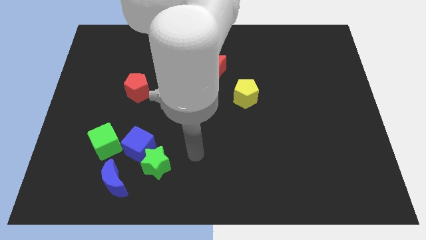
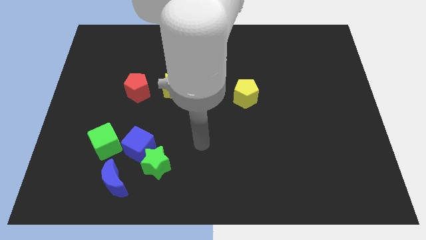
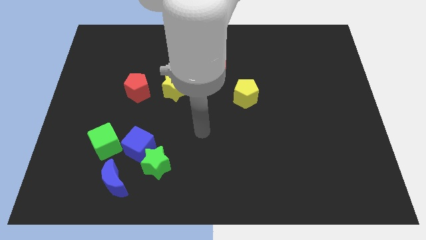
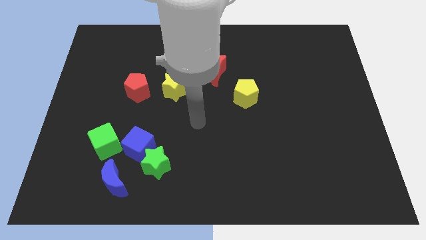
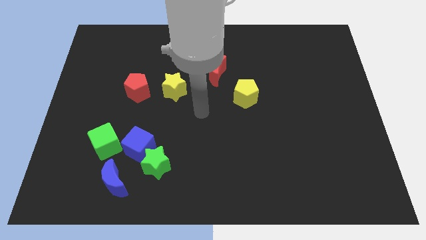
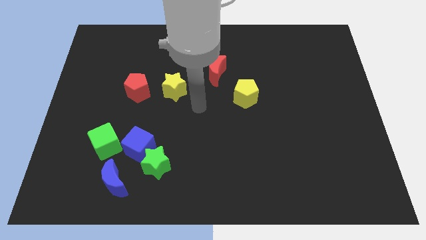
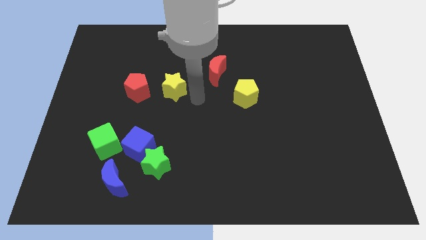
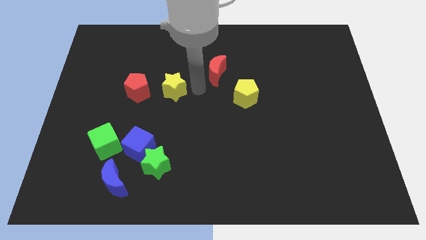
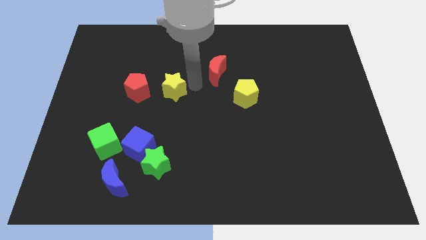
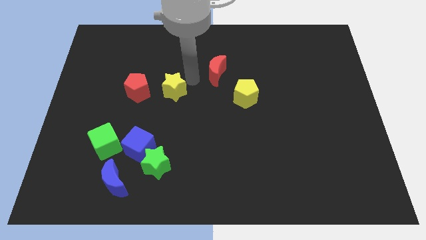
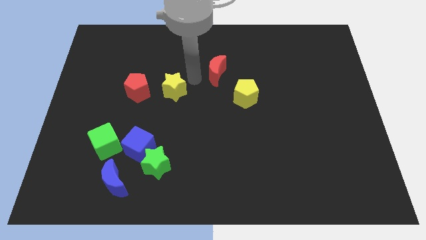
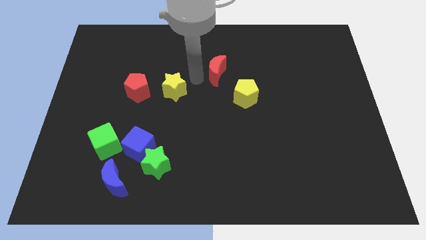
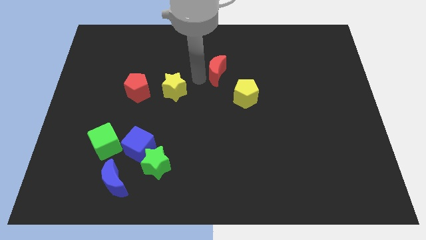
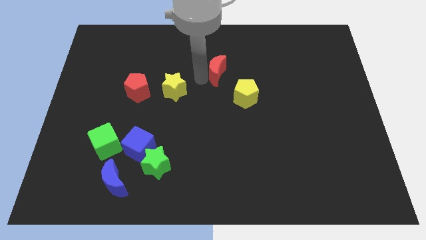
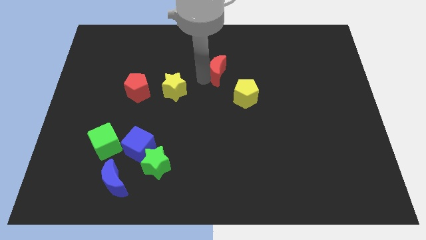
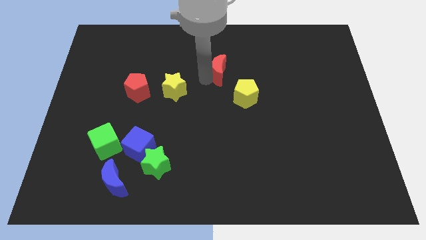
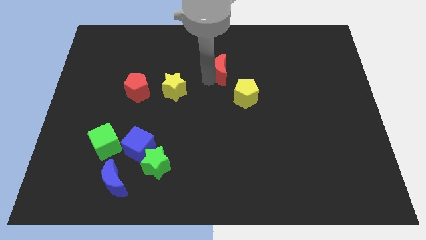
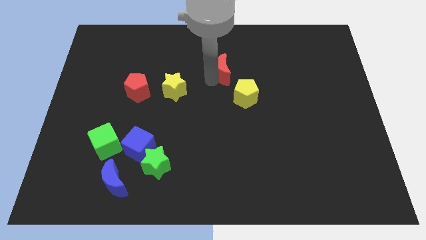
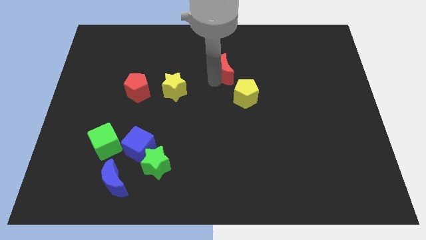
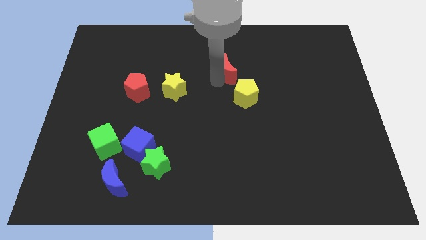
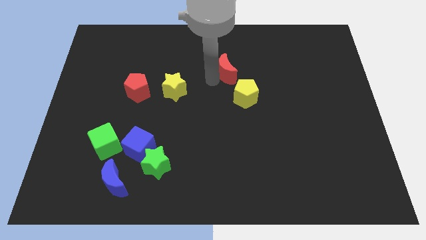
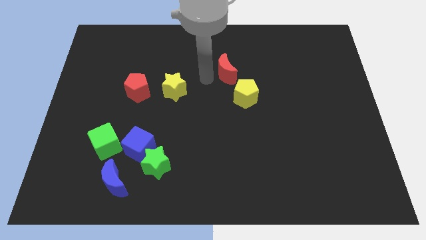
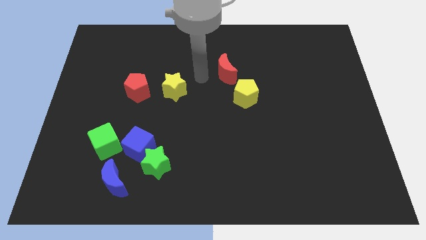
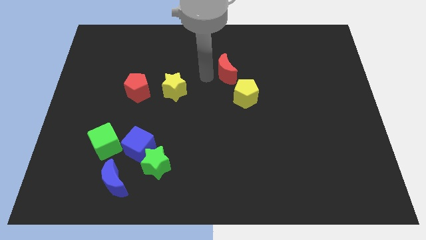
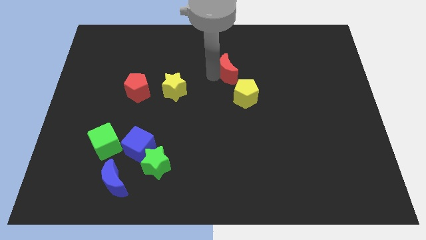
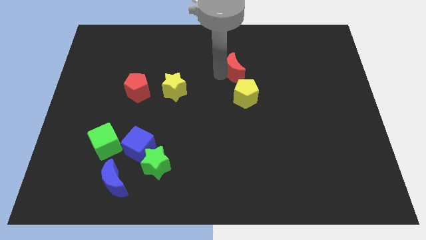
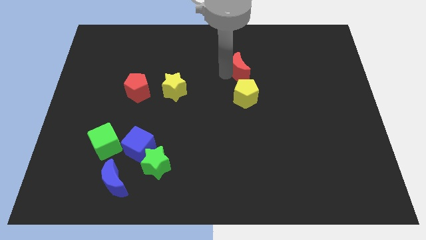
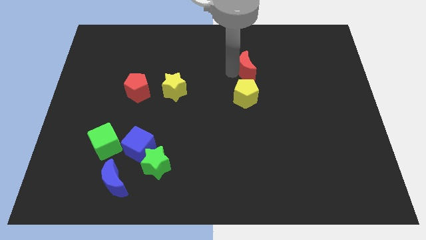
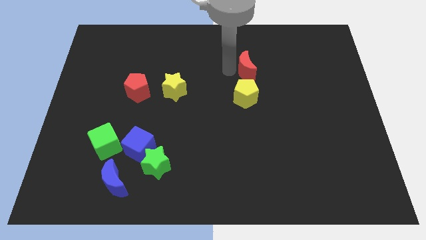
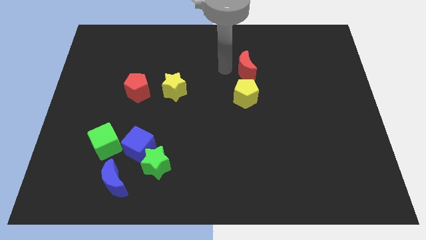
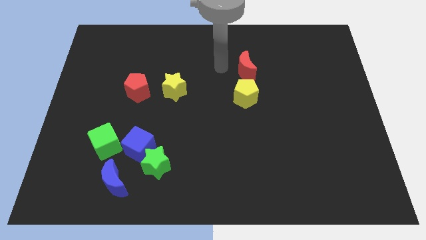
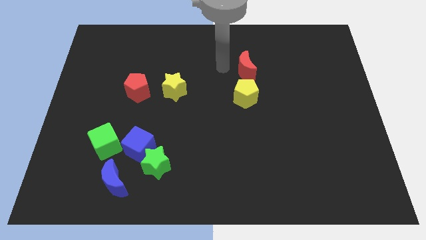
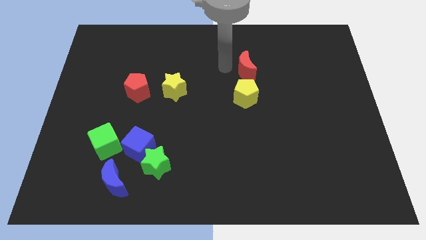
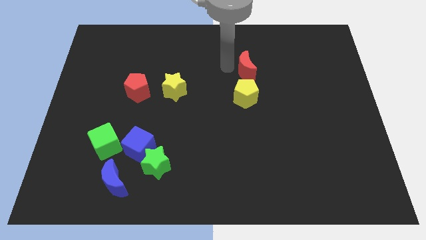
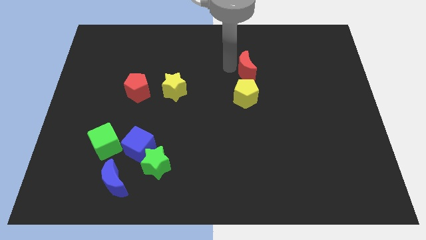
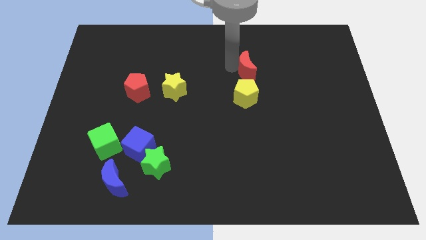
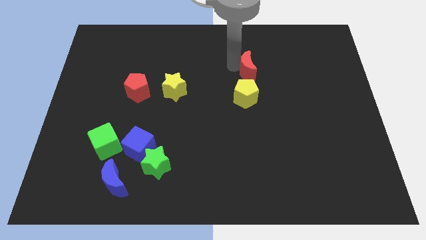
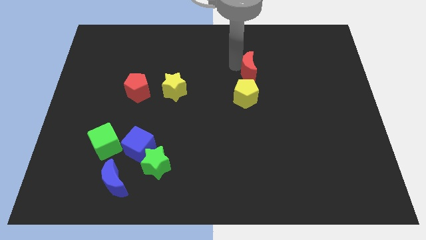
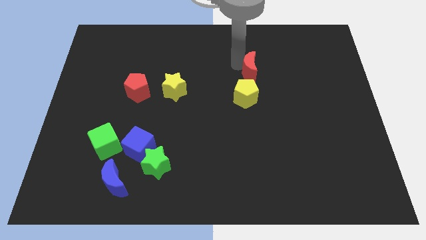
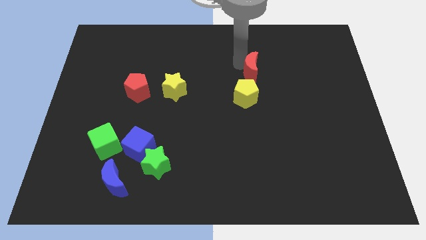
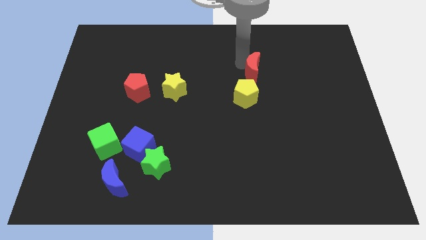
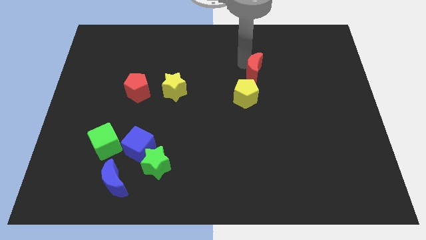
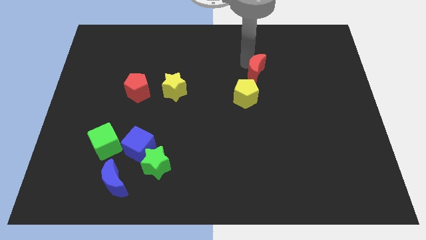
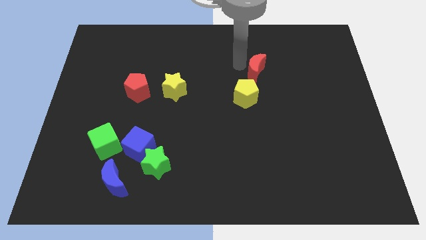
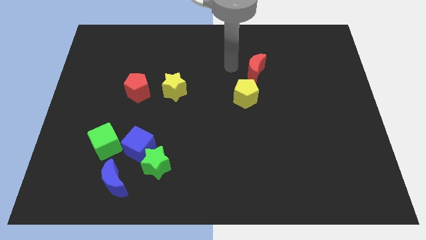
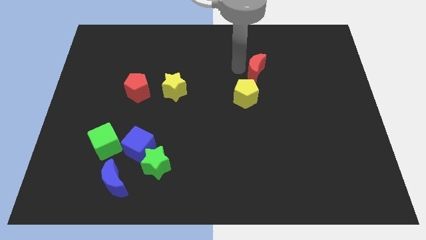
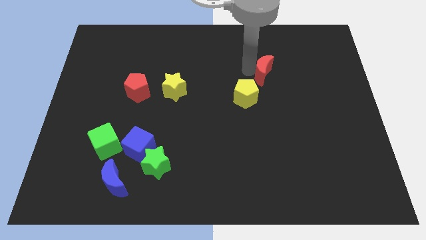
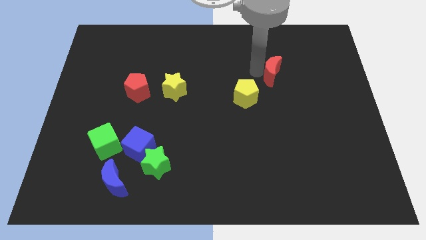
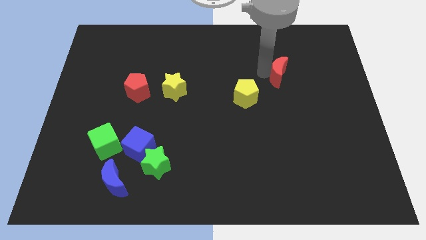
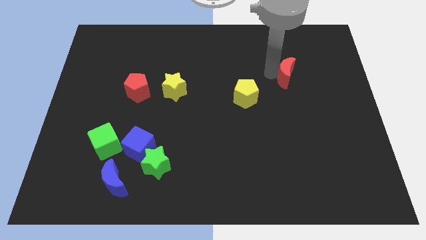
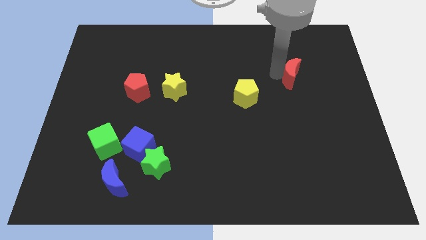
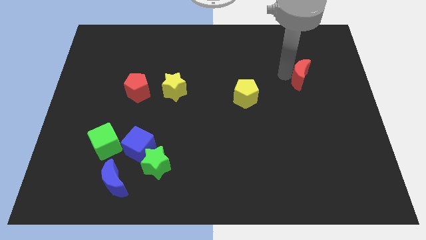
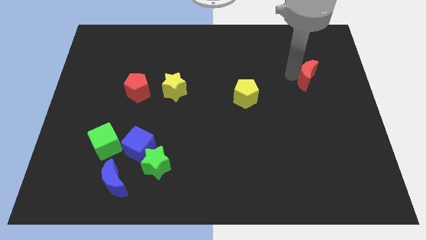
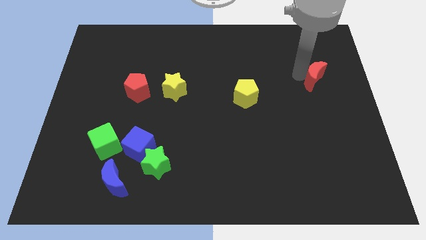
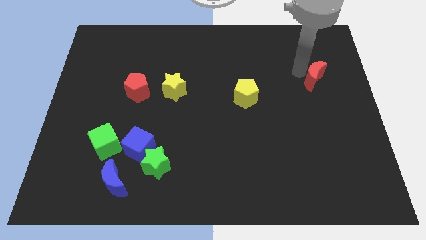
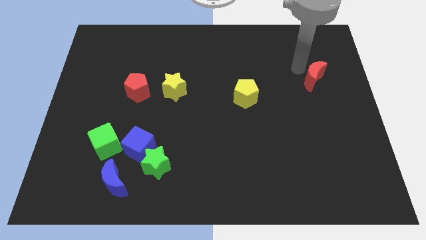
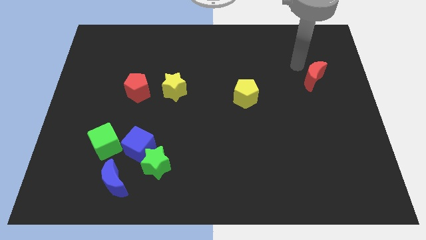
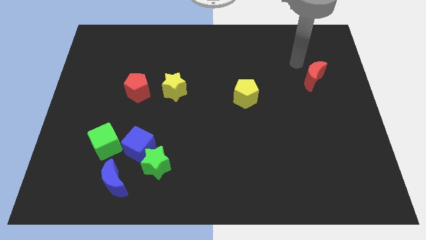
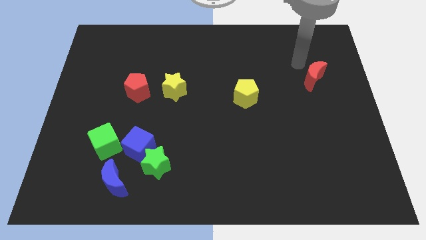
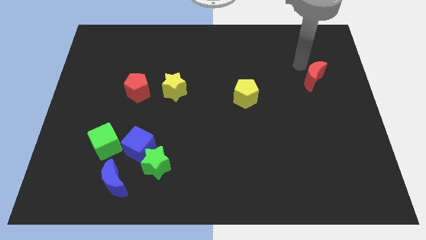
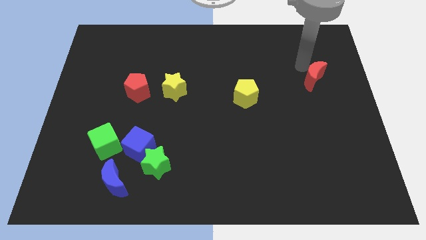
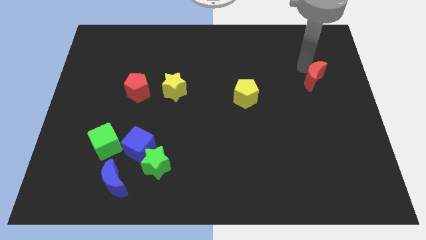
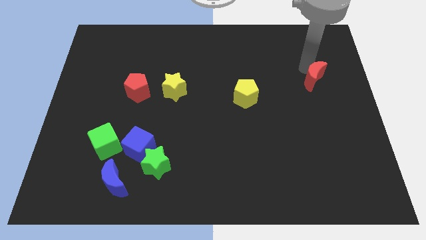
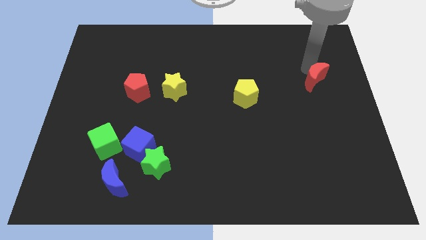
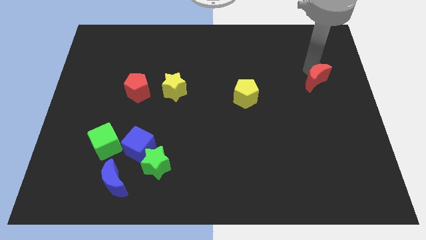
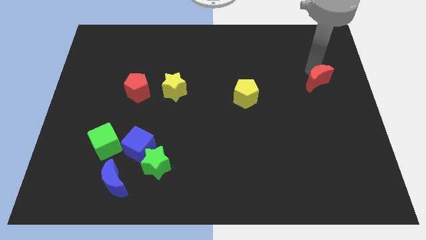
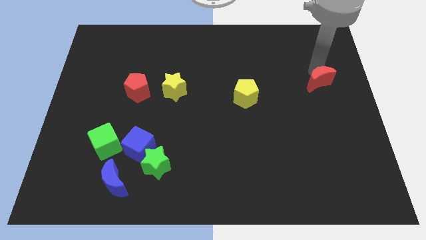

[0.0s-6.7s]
move the red moon to the right side
